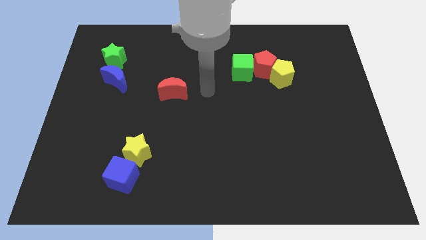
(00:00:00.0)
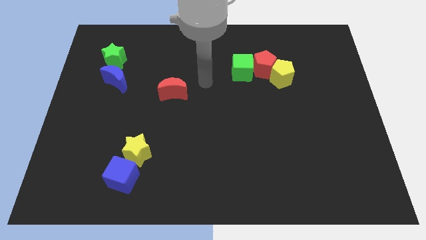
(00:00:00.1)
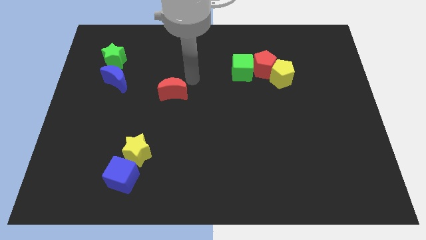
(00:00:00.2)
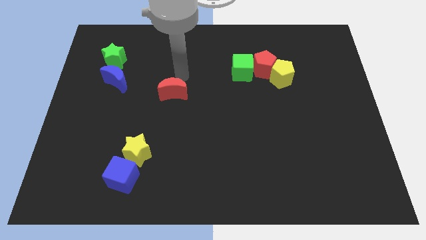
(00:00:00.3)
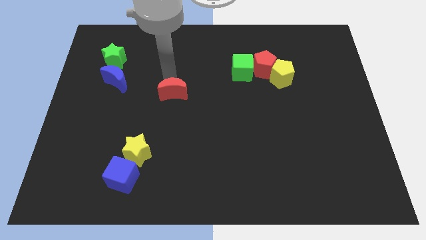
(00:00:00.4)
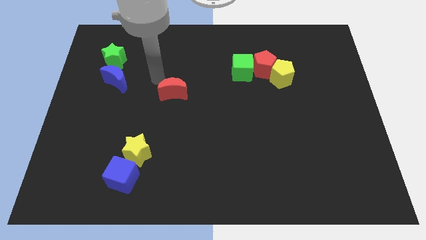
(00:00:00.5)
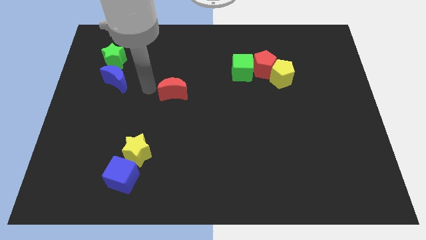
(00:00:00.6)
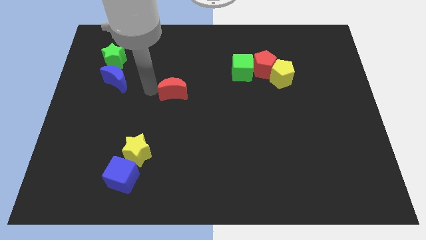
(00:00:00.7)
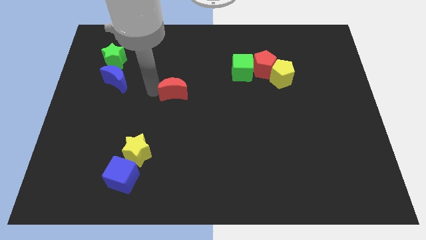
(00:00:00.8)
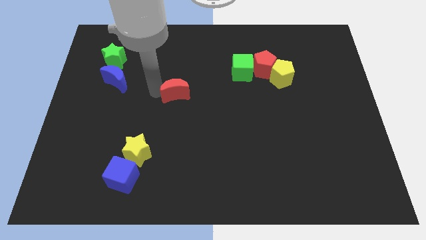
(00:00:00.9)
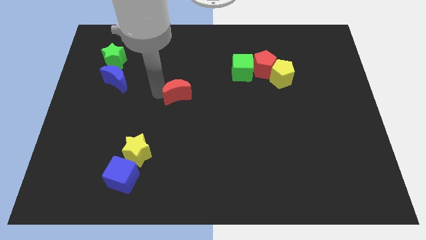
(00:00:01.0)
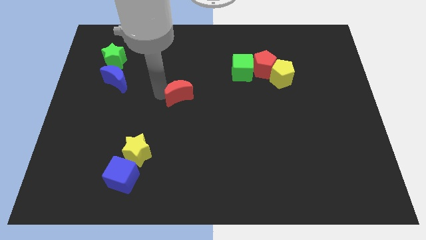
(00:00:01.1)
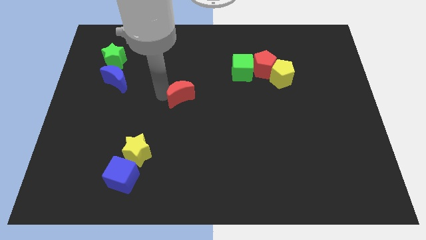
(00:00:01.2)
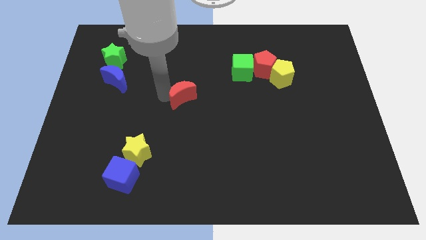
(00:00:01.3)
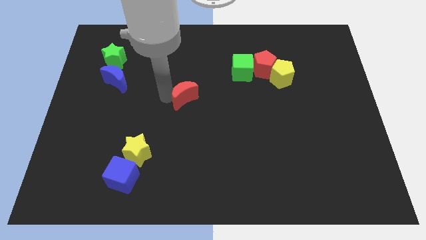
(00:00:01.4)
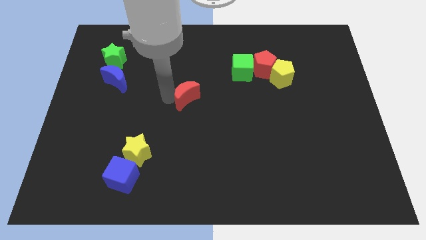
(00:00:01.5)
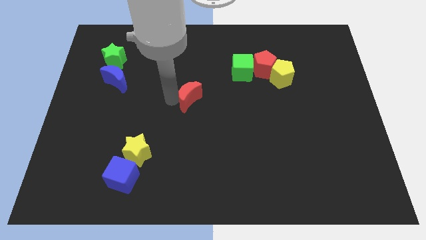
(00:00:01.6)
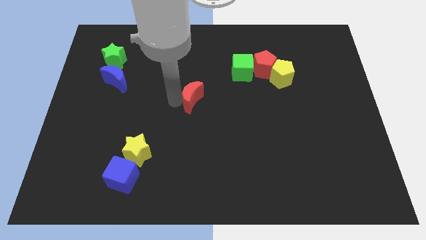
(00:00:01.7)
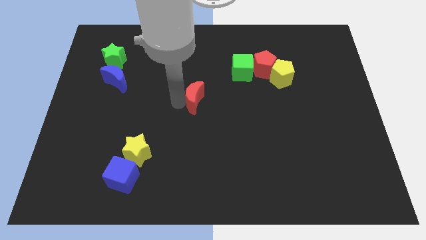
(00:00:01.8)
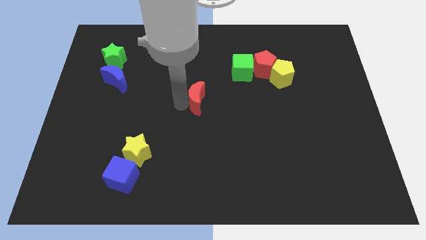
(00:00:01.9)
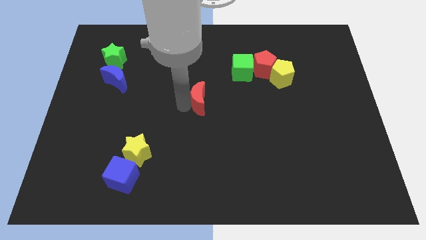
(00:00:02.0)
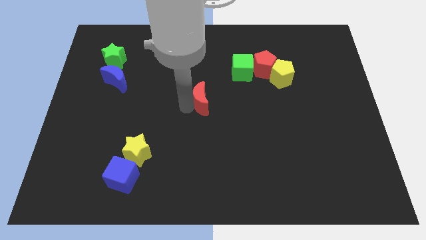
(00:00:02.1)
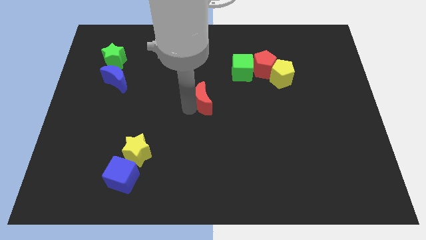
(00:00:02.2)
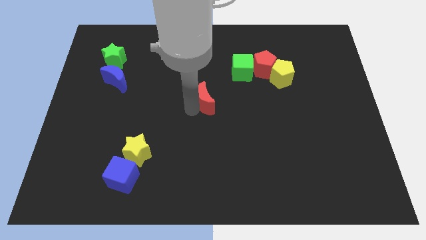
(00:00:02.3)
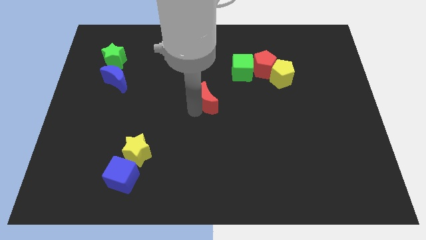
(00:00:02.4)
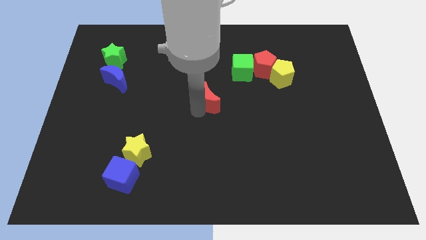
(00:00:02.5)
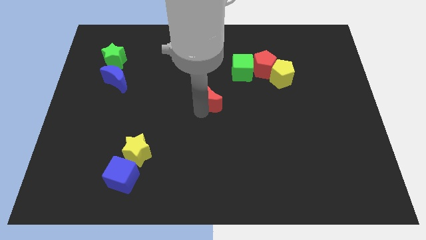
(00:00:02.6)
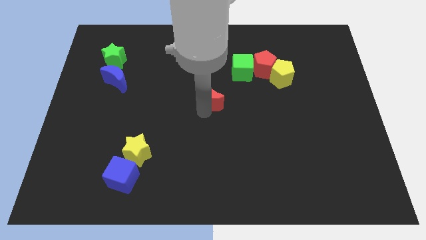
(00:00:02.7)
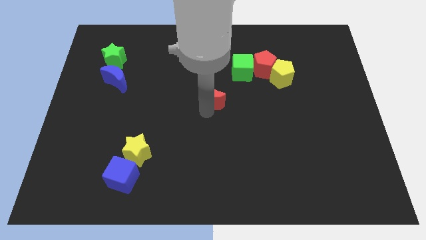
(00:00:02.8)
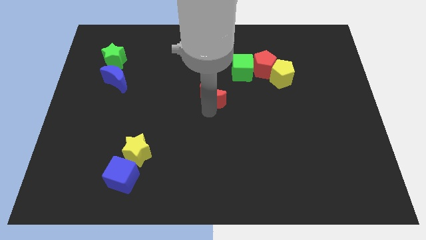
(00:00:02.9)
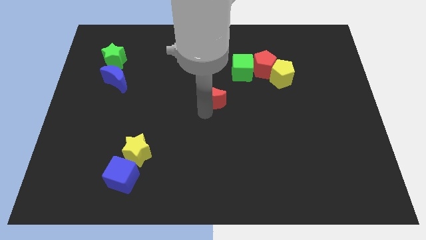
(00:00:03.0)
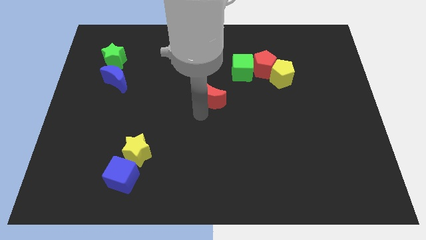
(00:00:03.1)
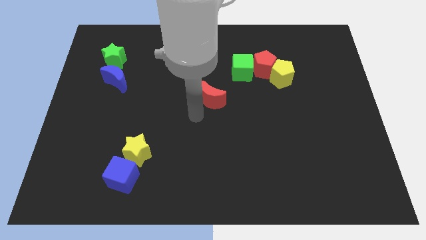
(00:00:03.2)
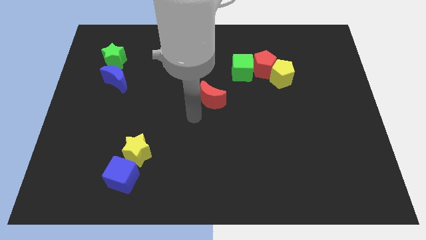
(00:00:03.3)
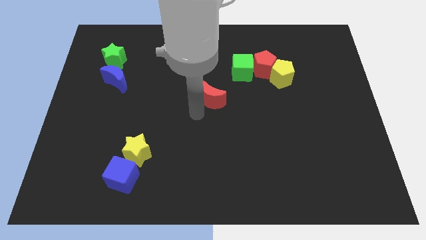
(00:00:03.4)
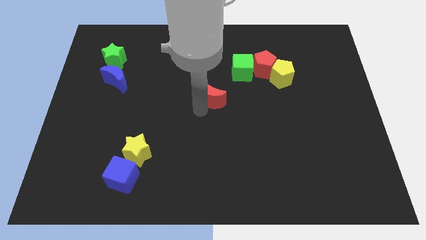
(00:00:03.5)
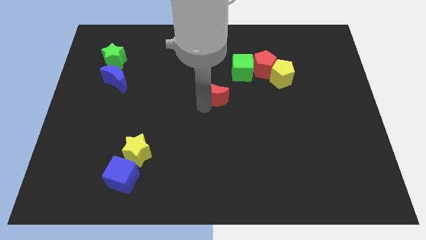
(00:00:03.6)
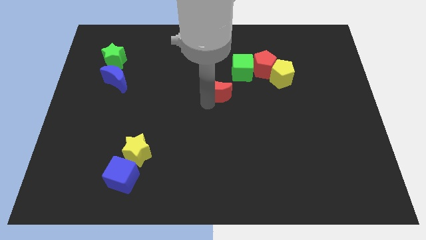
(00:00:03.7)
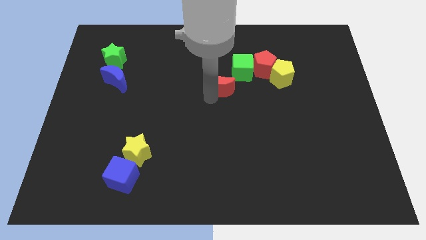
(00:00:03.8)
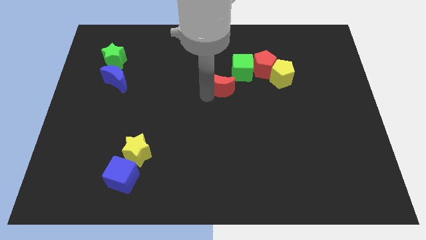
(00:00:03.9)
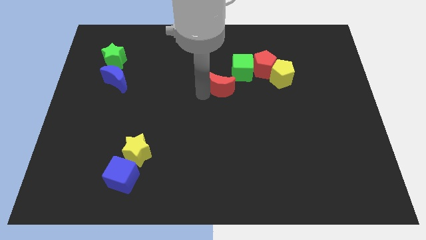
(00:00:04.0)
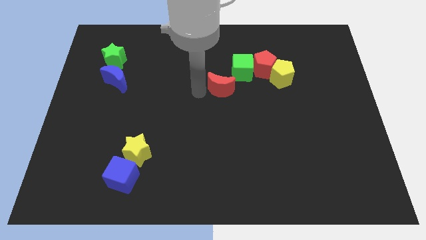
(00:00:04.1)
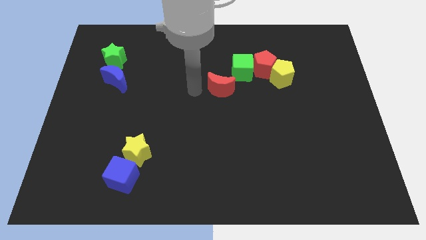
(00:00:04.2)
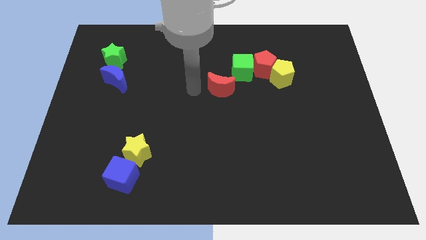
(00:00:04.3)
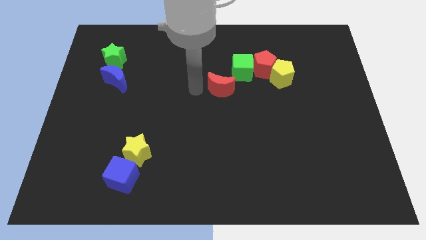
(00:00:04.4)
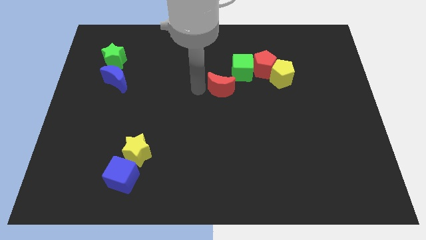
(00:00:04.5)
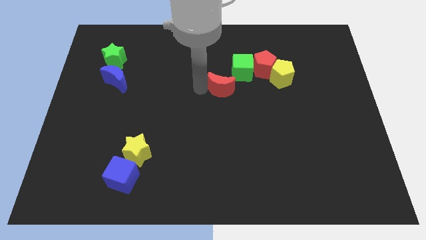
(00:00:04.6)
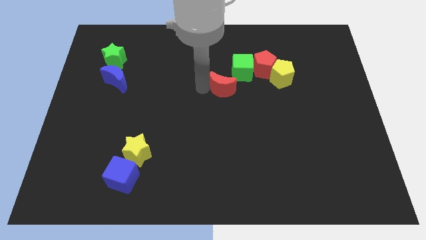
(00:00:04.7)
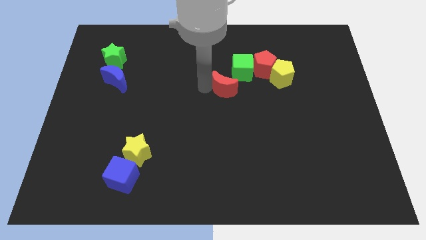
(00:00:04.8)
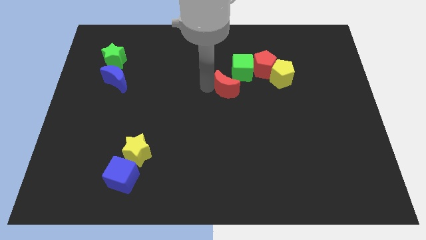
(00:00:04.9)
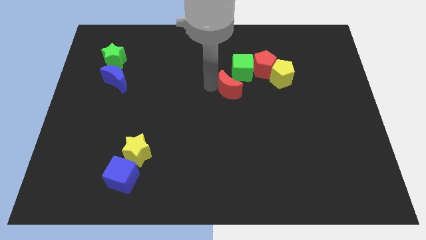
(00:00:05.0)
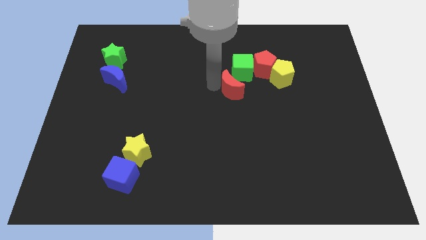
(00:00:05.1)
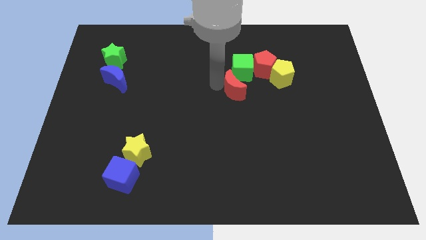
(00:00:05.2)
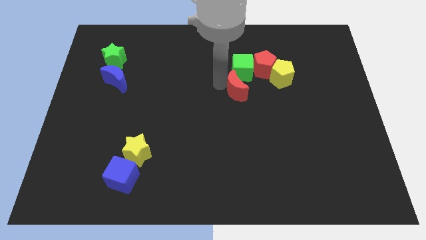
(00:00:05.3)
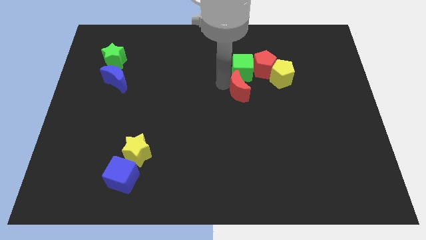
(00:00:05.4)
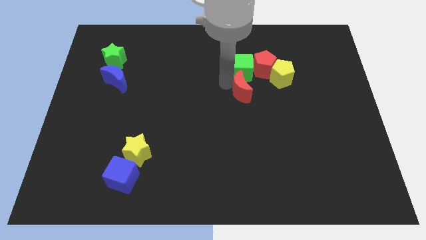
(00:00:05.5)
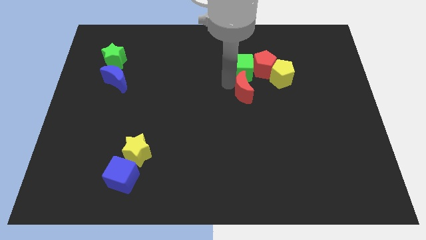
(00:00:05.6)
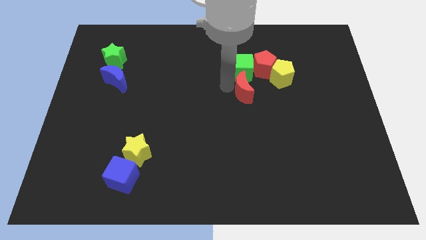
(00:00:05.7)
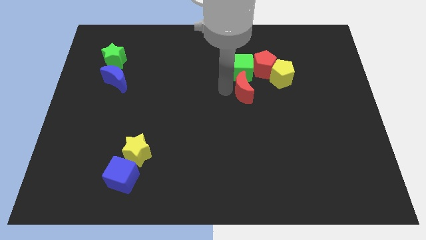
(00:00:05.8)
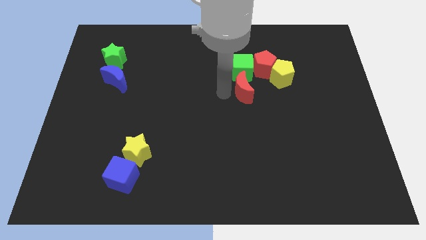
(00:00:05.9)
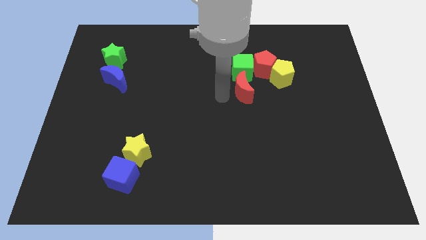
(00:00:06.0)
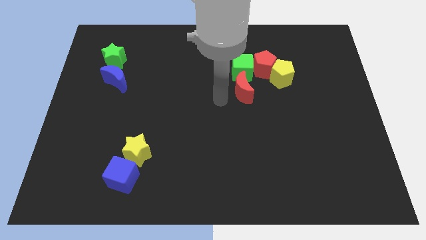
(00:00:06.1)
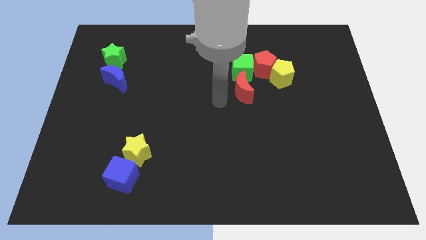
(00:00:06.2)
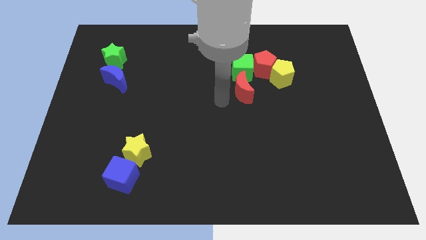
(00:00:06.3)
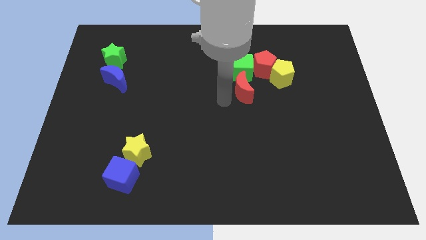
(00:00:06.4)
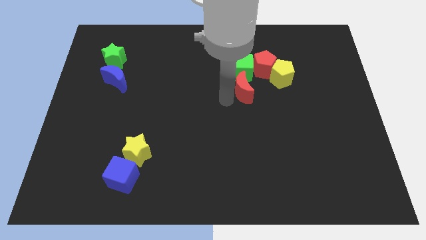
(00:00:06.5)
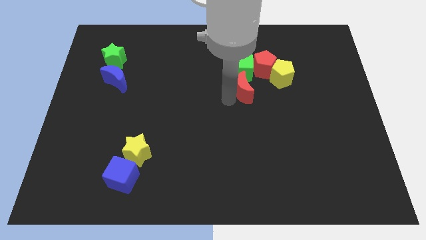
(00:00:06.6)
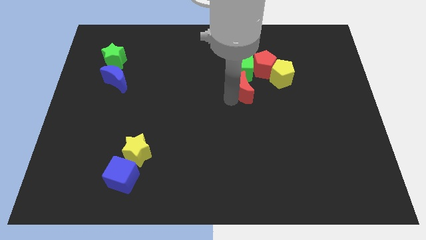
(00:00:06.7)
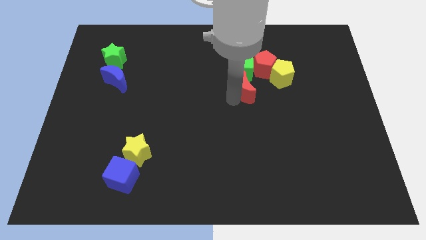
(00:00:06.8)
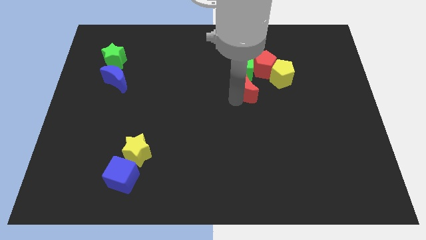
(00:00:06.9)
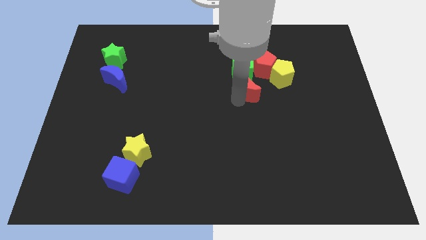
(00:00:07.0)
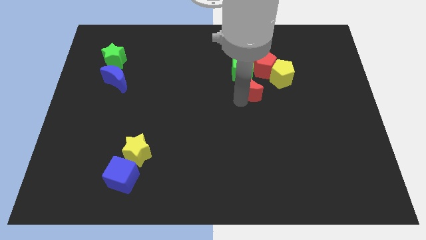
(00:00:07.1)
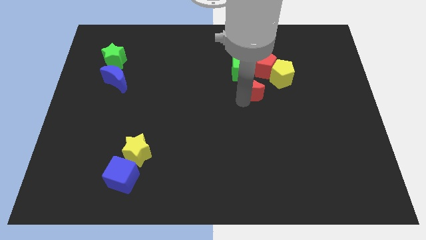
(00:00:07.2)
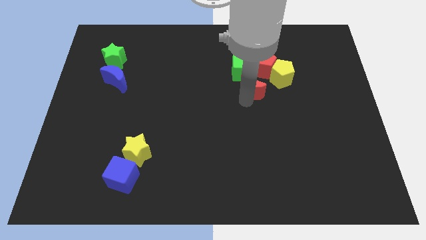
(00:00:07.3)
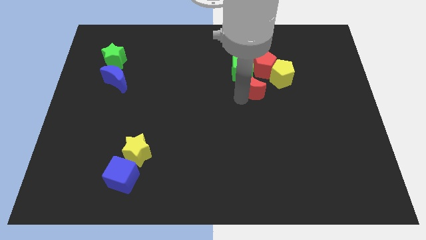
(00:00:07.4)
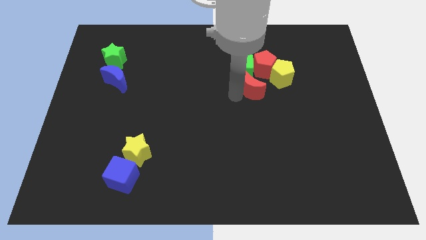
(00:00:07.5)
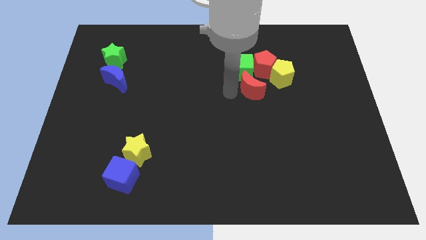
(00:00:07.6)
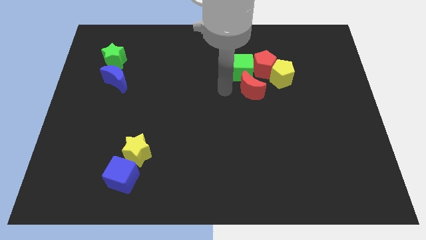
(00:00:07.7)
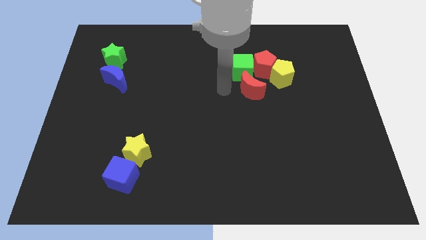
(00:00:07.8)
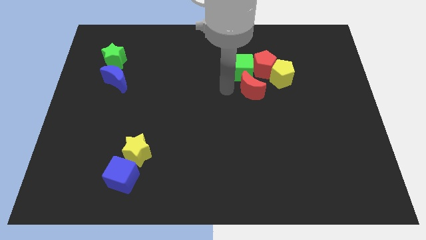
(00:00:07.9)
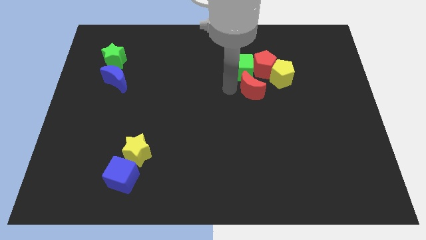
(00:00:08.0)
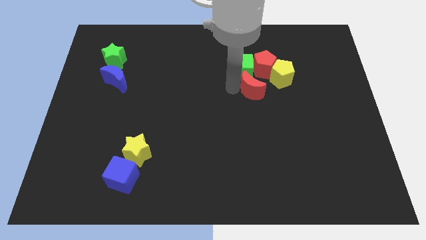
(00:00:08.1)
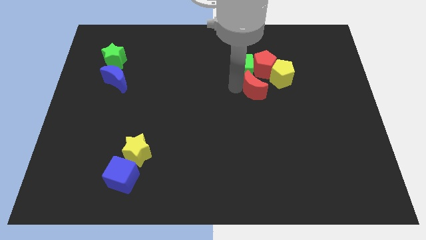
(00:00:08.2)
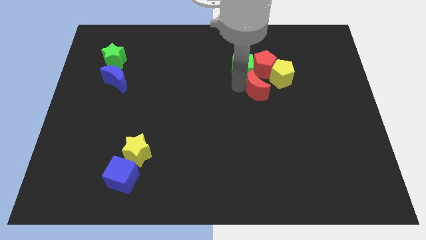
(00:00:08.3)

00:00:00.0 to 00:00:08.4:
push the red moon to the right
